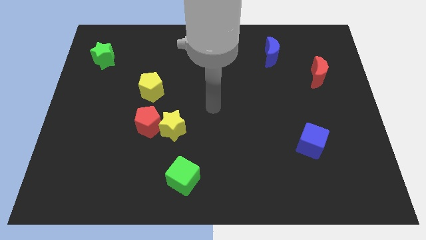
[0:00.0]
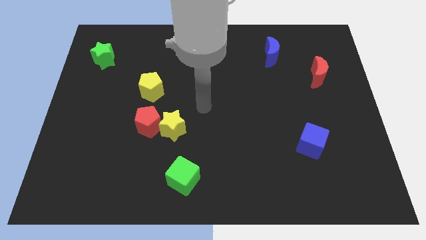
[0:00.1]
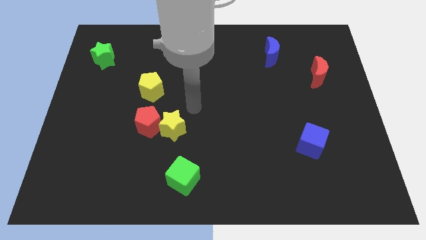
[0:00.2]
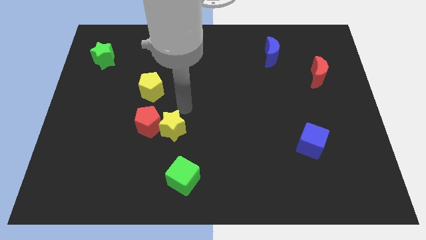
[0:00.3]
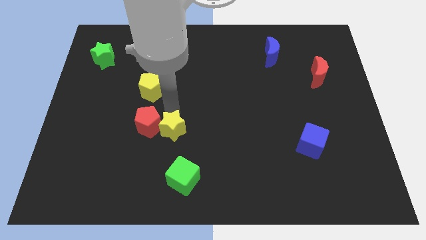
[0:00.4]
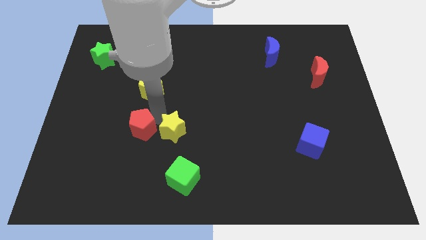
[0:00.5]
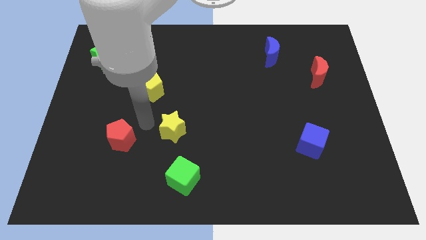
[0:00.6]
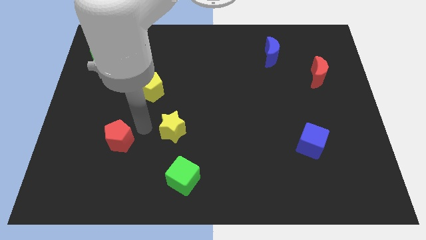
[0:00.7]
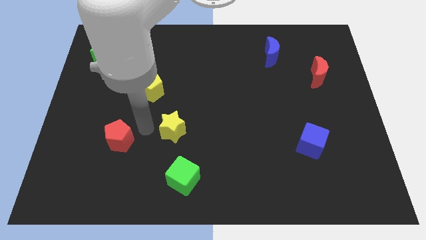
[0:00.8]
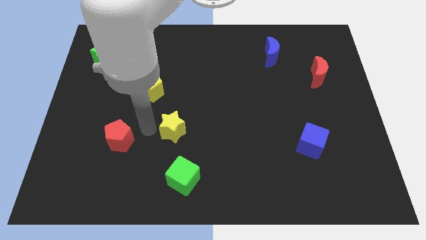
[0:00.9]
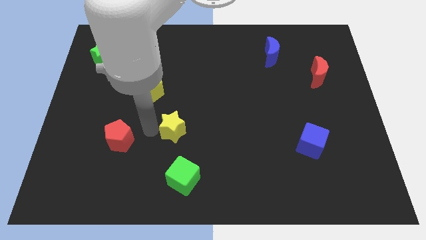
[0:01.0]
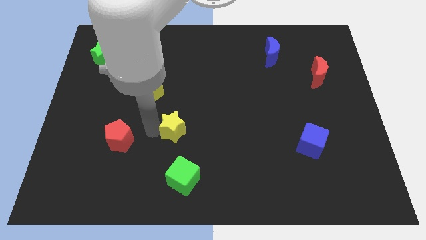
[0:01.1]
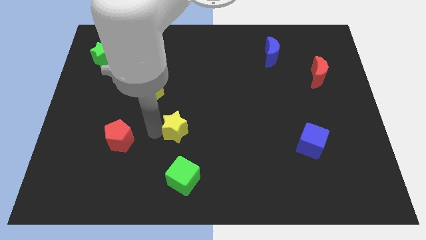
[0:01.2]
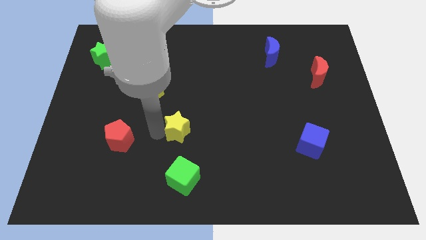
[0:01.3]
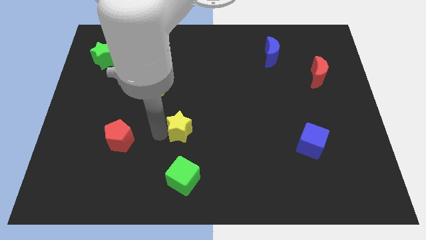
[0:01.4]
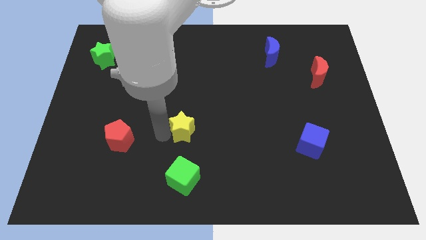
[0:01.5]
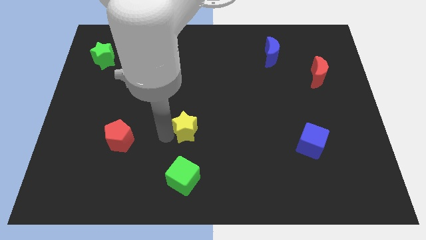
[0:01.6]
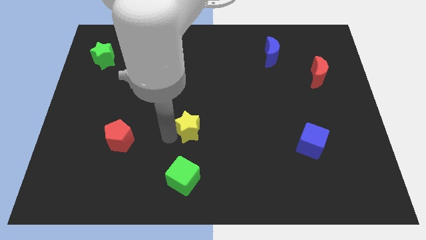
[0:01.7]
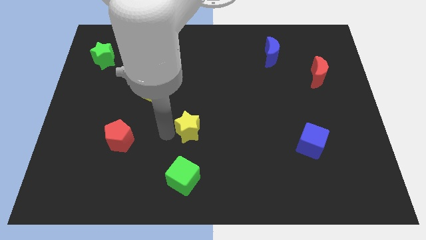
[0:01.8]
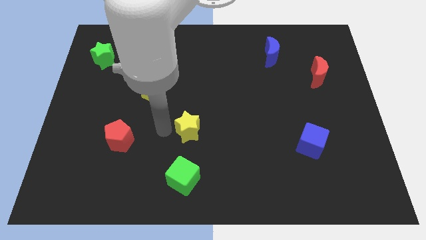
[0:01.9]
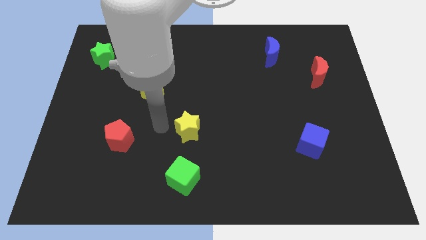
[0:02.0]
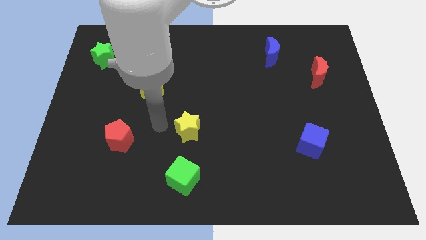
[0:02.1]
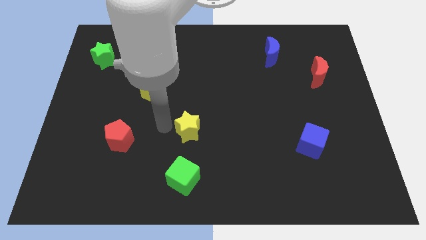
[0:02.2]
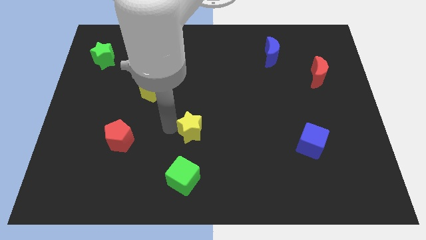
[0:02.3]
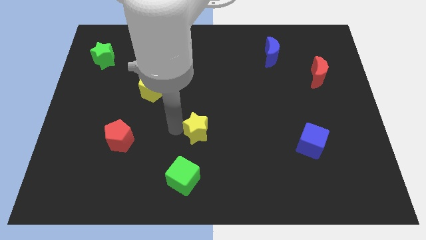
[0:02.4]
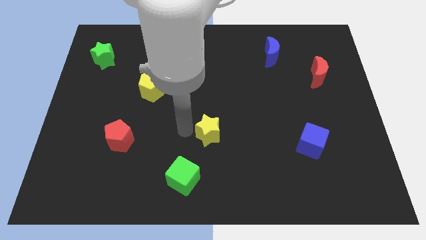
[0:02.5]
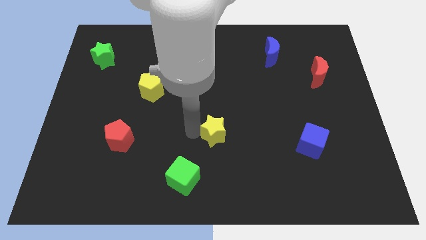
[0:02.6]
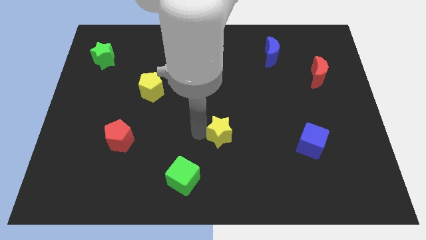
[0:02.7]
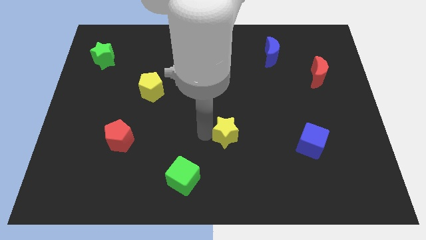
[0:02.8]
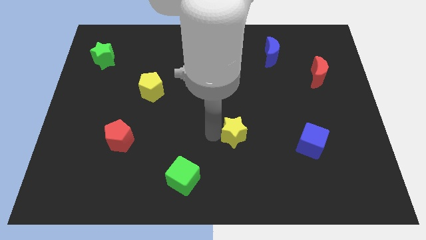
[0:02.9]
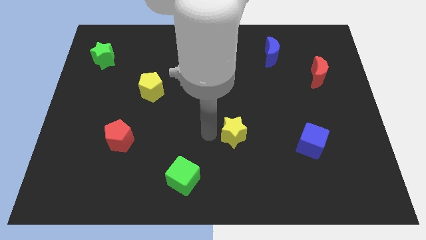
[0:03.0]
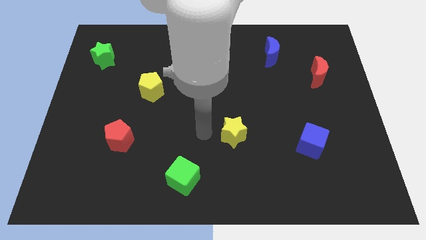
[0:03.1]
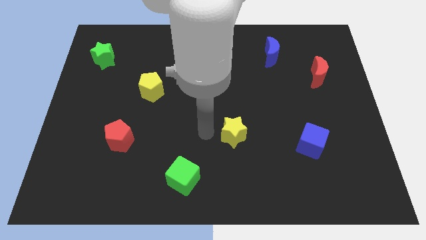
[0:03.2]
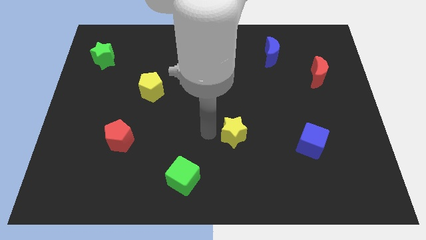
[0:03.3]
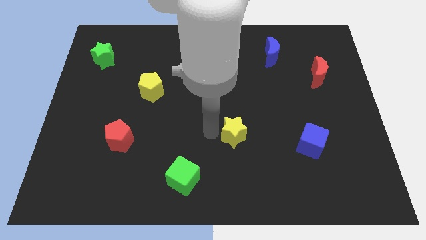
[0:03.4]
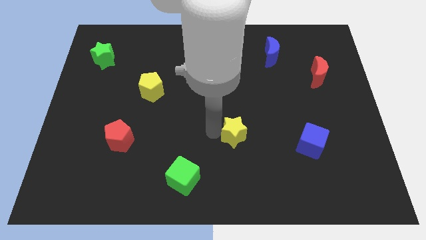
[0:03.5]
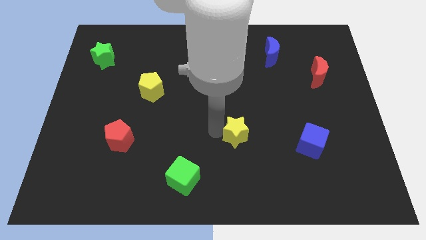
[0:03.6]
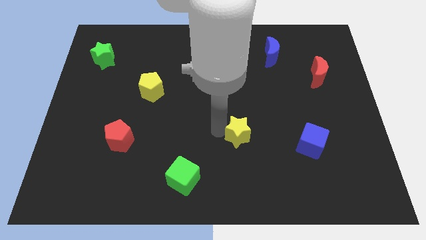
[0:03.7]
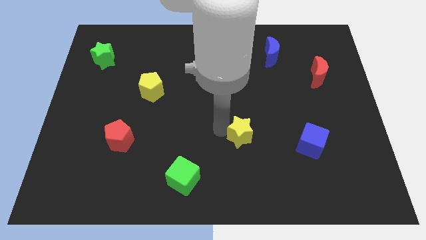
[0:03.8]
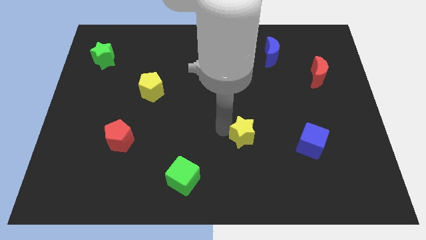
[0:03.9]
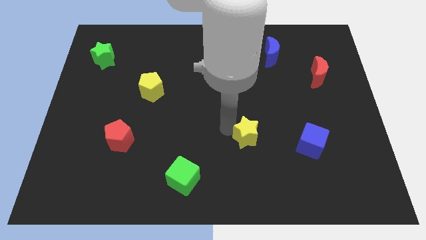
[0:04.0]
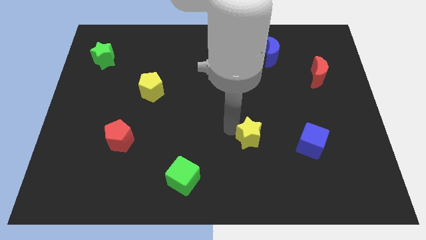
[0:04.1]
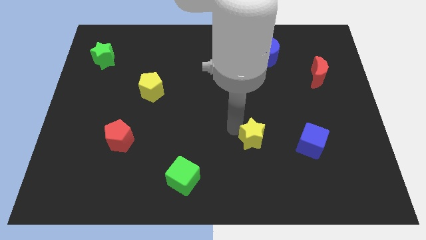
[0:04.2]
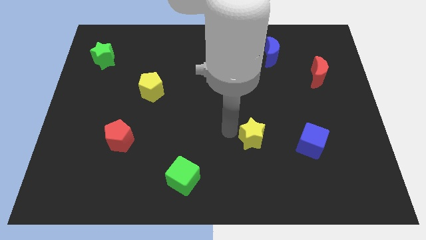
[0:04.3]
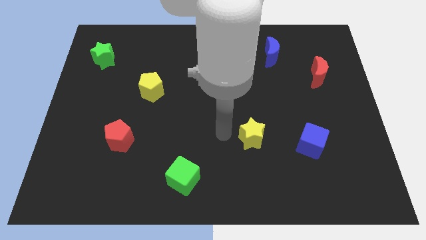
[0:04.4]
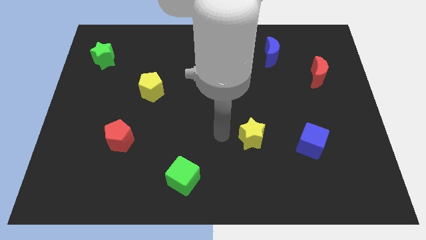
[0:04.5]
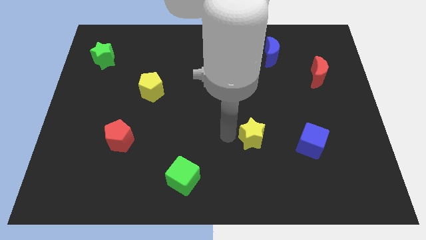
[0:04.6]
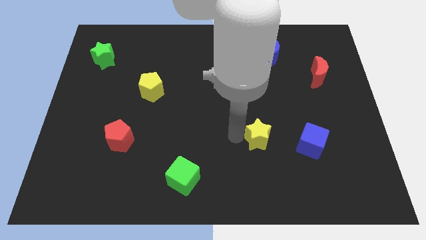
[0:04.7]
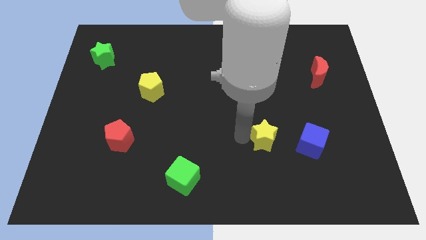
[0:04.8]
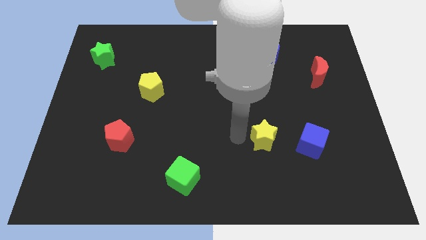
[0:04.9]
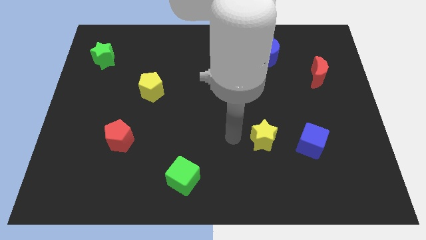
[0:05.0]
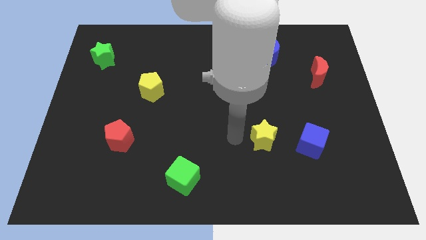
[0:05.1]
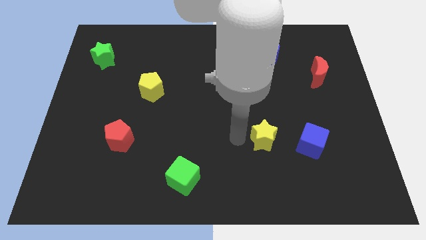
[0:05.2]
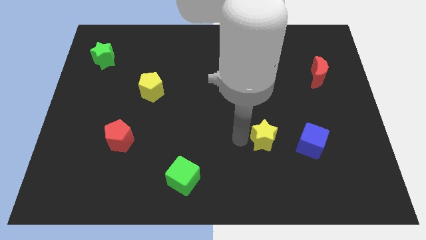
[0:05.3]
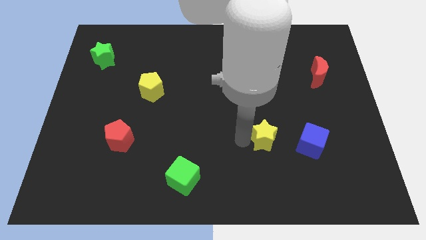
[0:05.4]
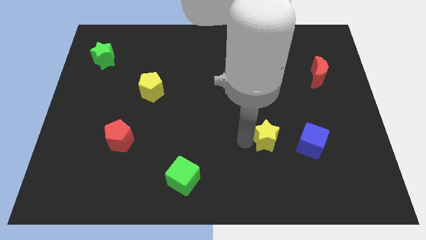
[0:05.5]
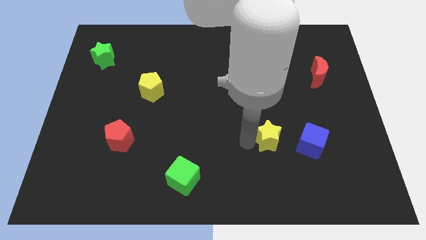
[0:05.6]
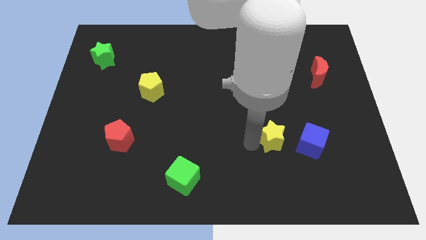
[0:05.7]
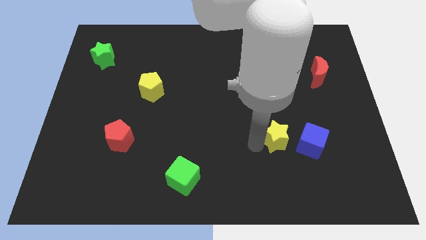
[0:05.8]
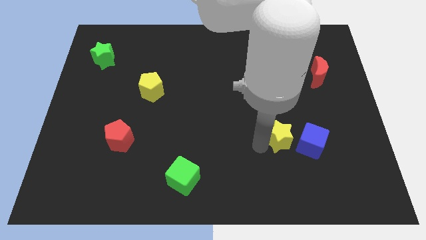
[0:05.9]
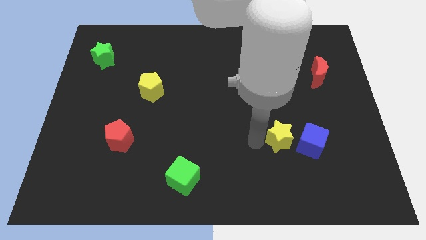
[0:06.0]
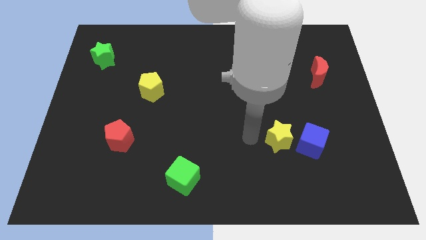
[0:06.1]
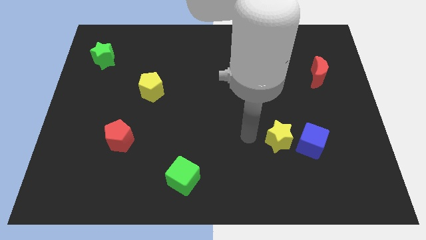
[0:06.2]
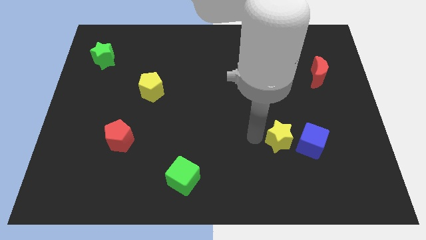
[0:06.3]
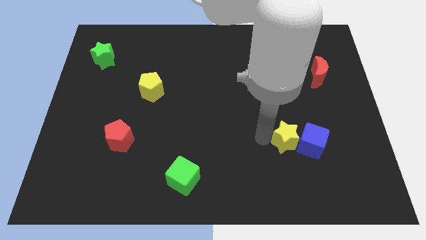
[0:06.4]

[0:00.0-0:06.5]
move the yellow star close to the blue cube
